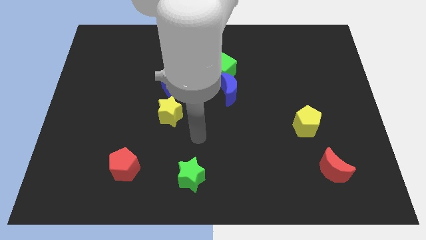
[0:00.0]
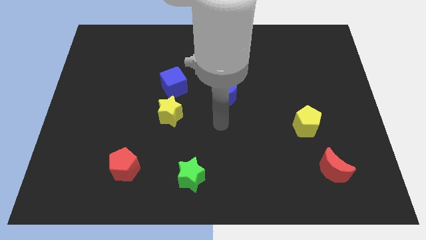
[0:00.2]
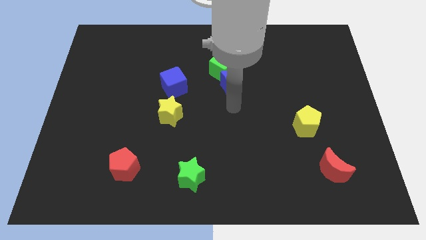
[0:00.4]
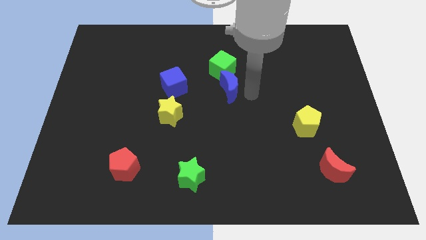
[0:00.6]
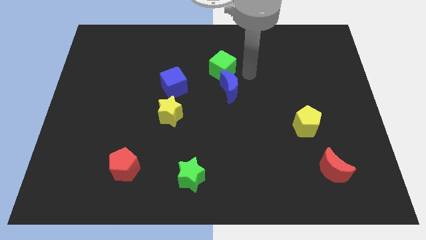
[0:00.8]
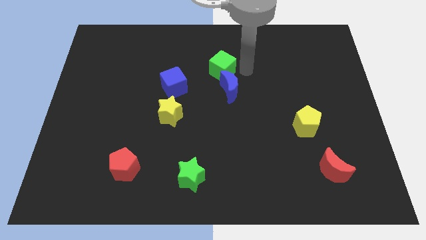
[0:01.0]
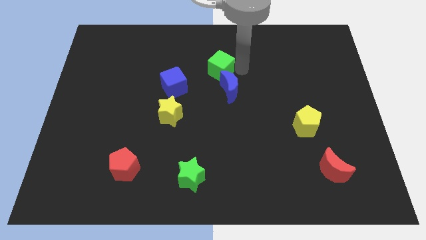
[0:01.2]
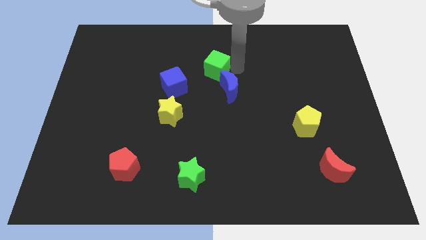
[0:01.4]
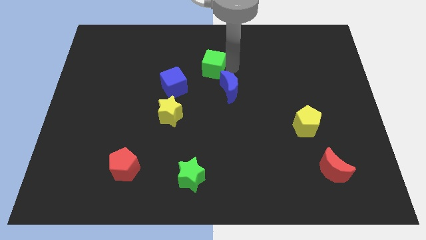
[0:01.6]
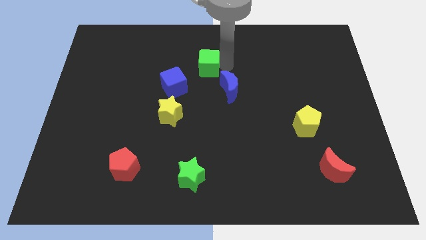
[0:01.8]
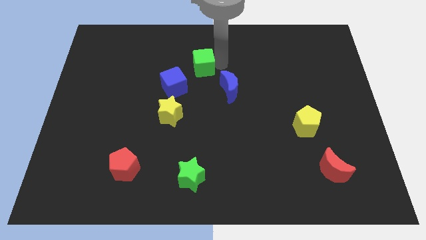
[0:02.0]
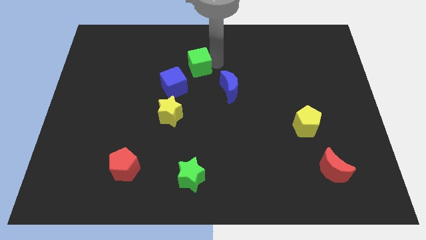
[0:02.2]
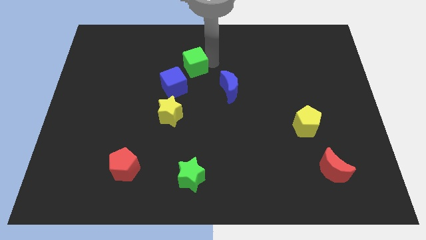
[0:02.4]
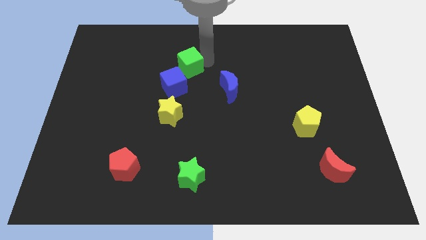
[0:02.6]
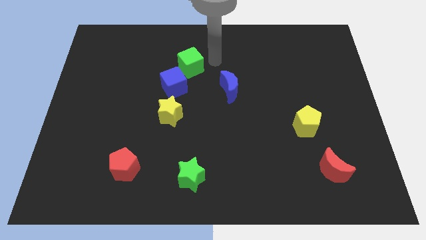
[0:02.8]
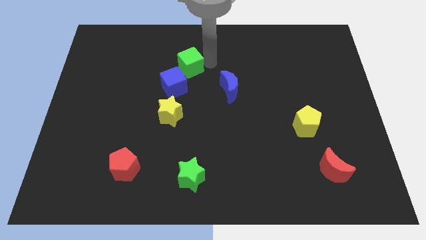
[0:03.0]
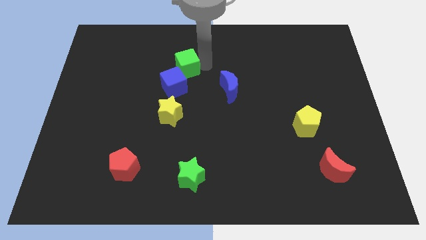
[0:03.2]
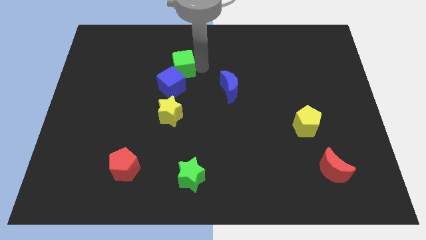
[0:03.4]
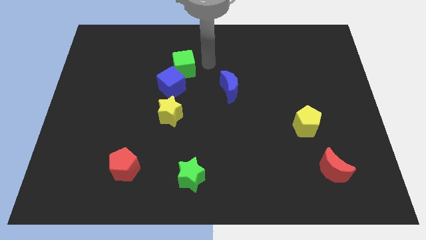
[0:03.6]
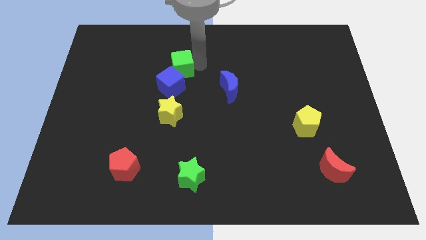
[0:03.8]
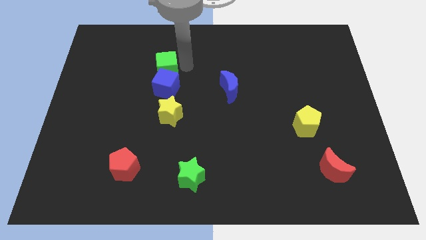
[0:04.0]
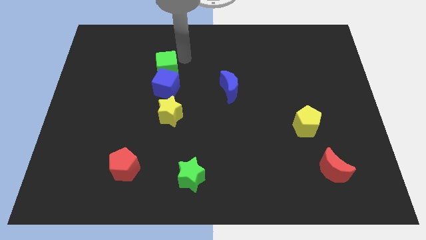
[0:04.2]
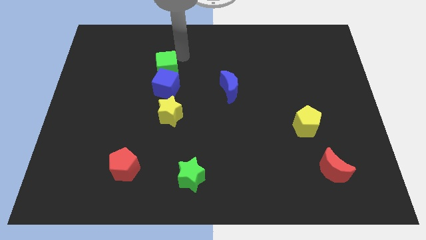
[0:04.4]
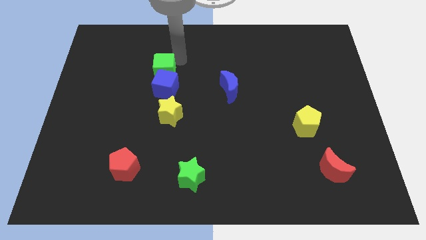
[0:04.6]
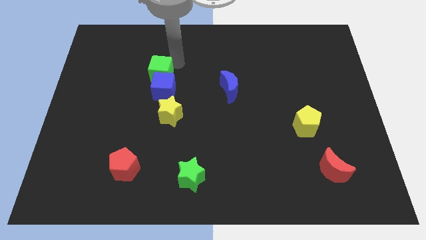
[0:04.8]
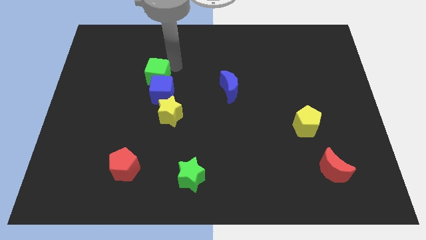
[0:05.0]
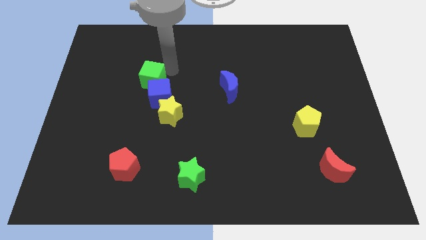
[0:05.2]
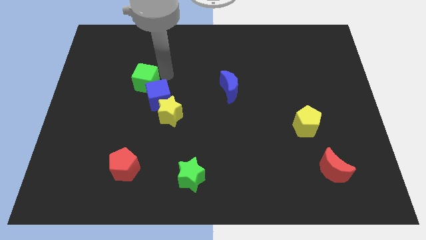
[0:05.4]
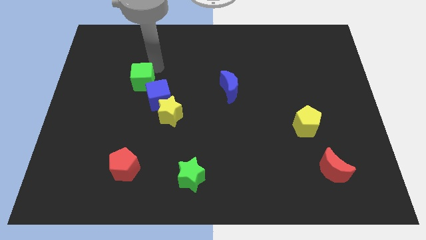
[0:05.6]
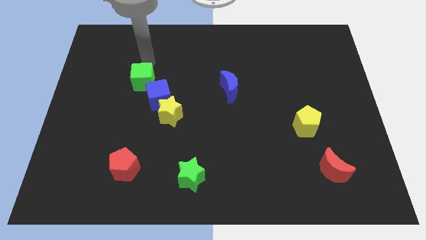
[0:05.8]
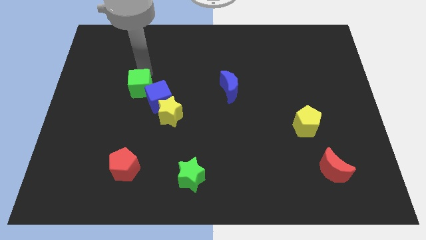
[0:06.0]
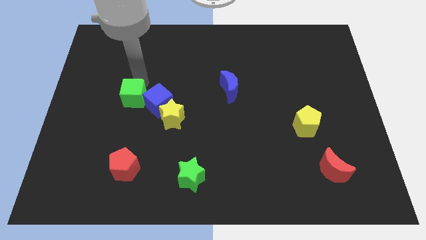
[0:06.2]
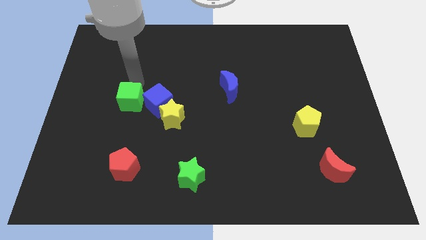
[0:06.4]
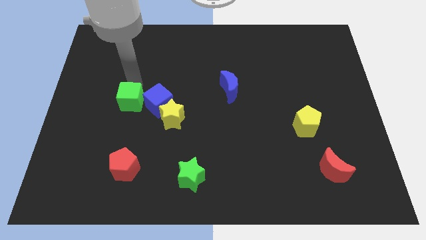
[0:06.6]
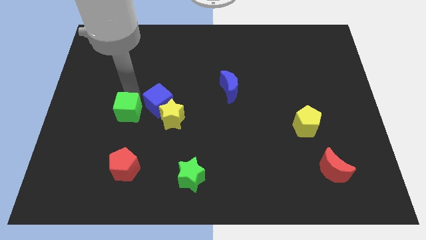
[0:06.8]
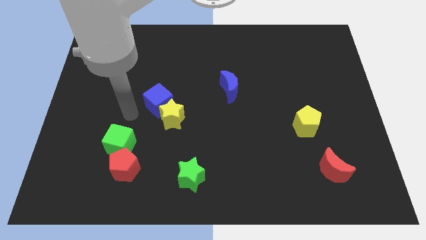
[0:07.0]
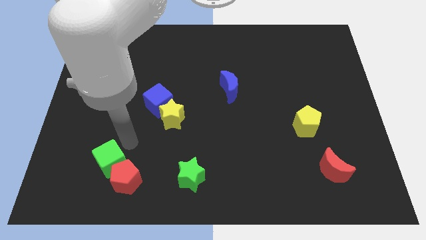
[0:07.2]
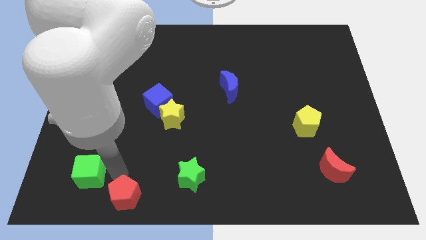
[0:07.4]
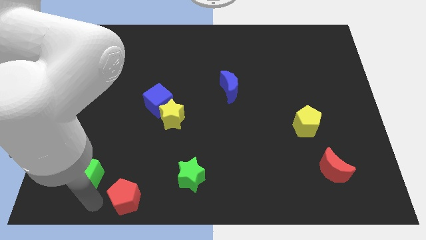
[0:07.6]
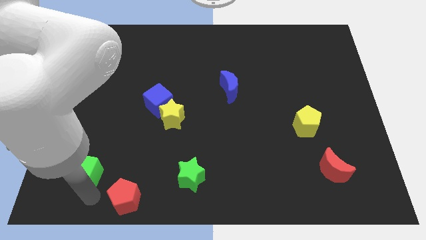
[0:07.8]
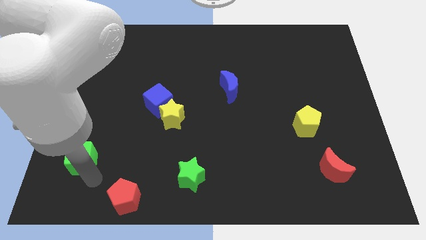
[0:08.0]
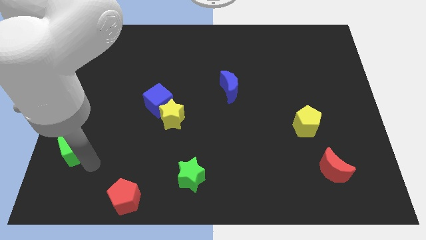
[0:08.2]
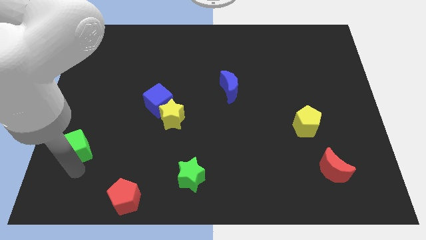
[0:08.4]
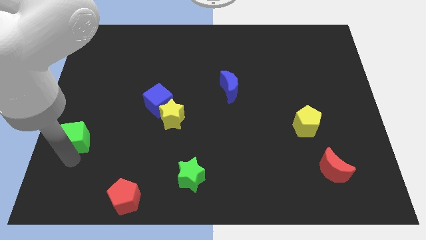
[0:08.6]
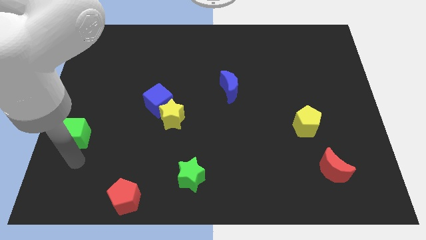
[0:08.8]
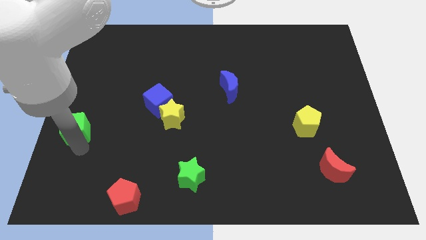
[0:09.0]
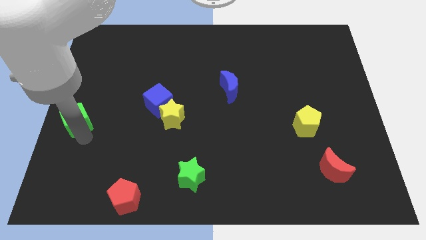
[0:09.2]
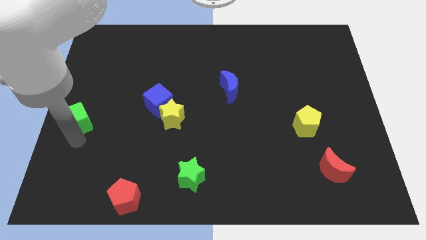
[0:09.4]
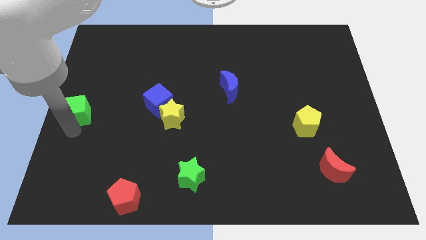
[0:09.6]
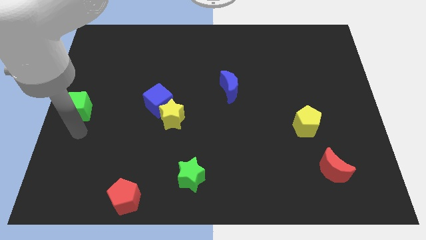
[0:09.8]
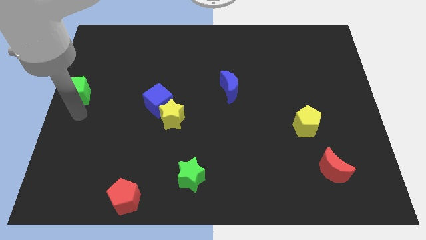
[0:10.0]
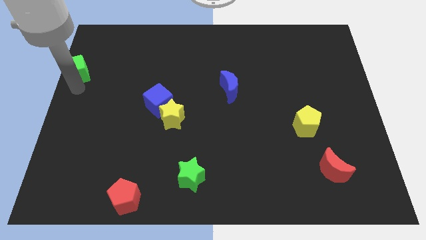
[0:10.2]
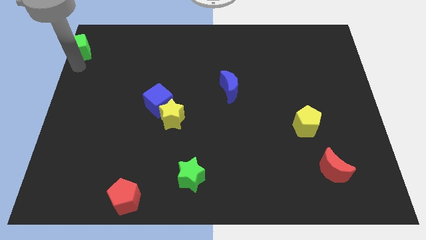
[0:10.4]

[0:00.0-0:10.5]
push the green cube to the top left

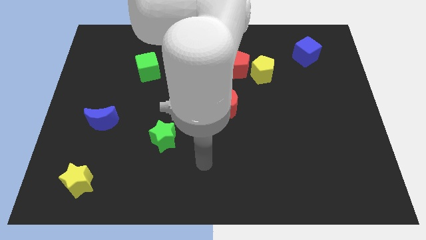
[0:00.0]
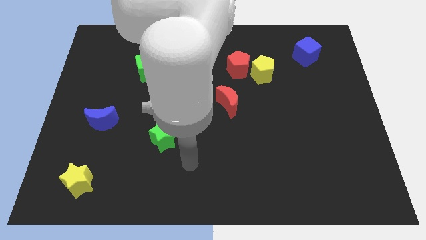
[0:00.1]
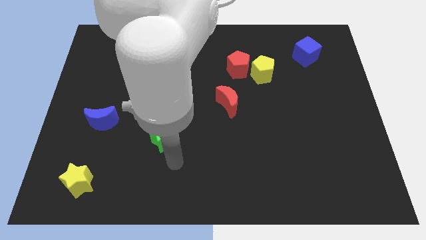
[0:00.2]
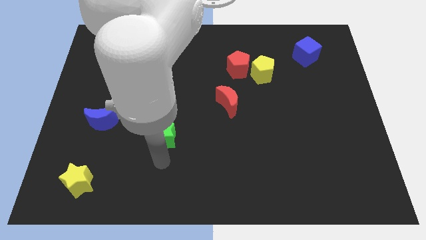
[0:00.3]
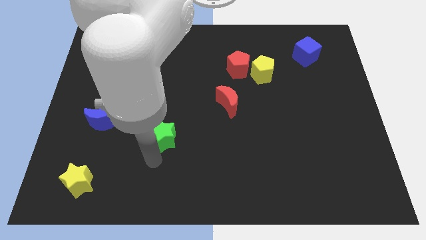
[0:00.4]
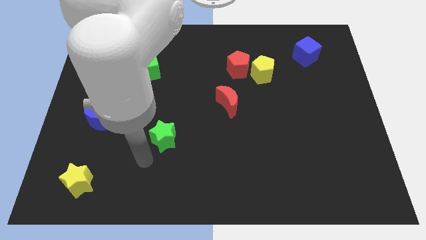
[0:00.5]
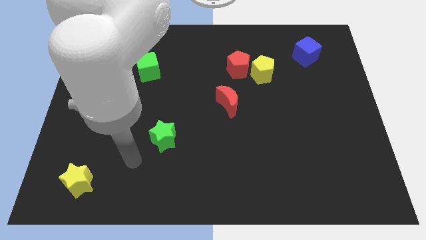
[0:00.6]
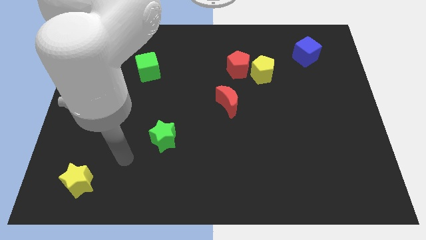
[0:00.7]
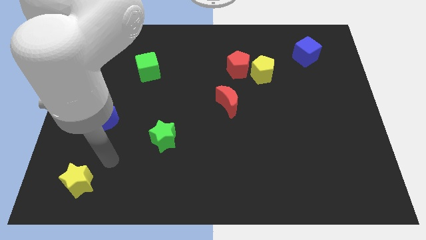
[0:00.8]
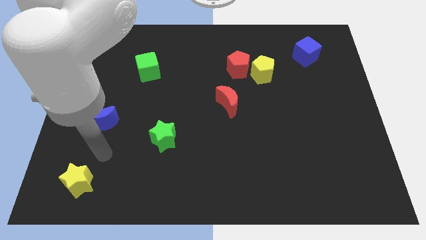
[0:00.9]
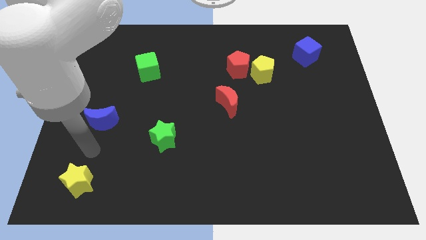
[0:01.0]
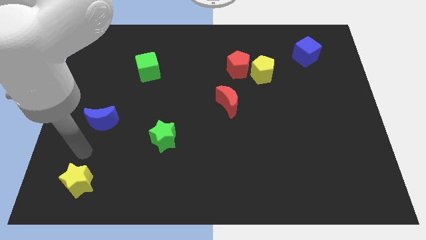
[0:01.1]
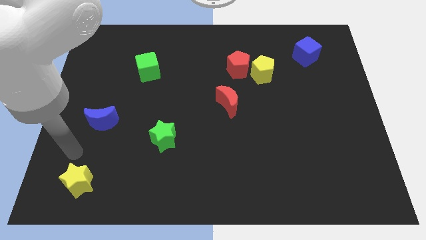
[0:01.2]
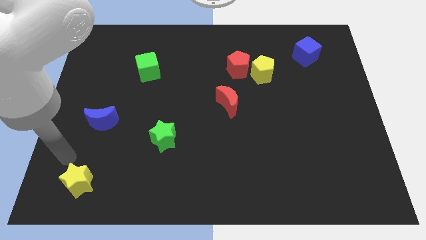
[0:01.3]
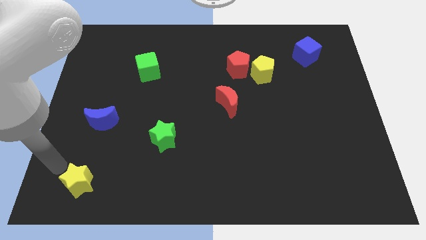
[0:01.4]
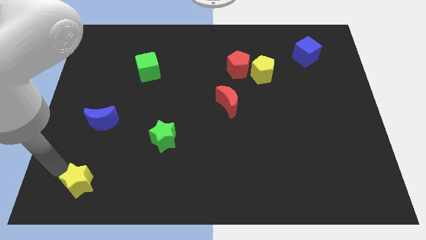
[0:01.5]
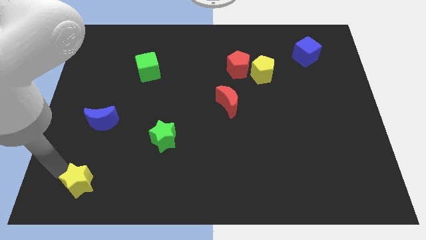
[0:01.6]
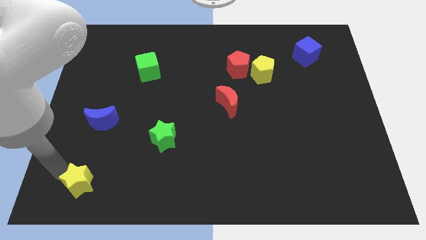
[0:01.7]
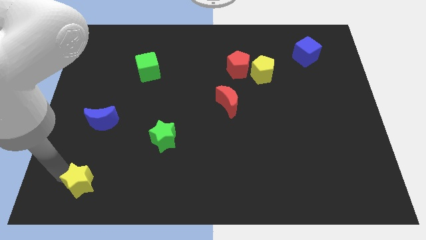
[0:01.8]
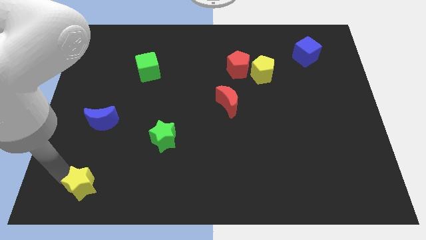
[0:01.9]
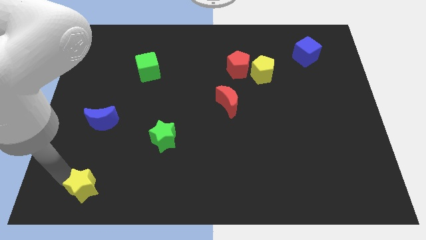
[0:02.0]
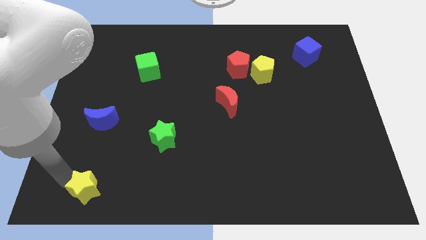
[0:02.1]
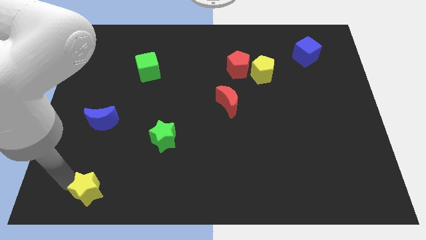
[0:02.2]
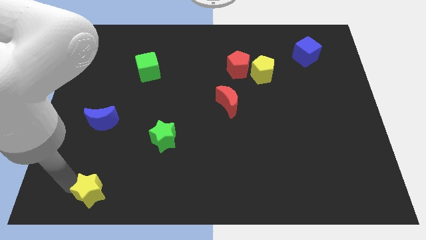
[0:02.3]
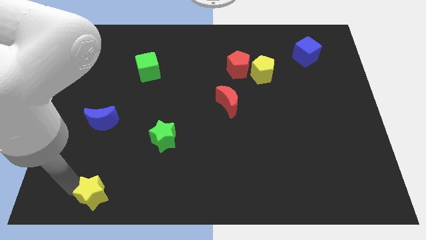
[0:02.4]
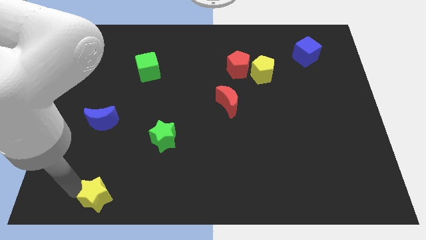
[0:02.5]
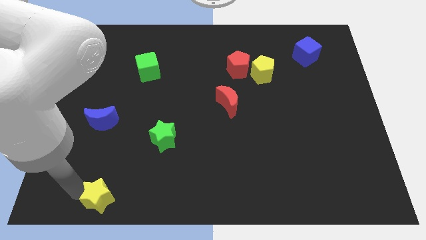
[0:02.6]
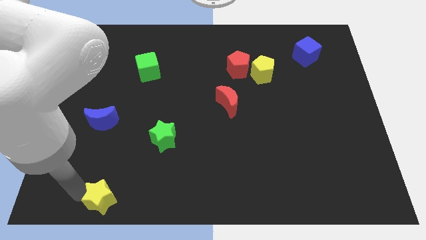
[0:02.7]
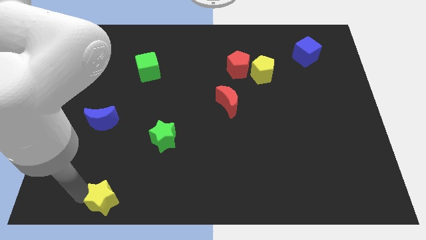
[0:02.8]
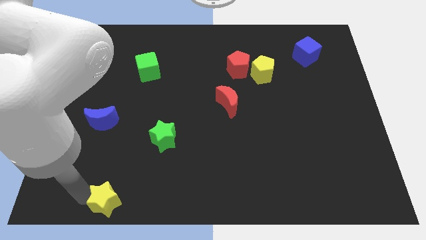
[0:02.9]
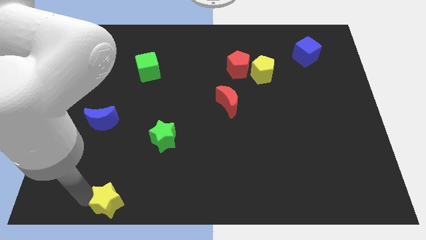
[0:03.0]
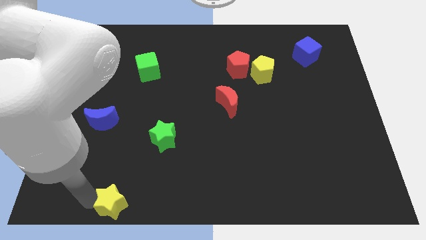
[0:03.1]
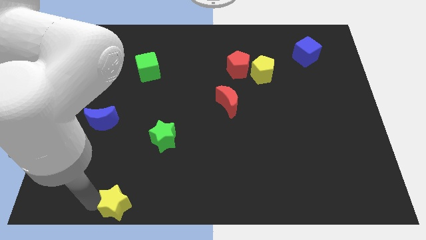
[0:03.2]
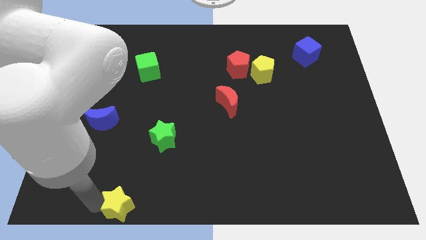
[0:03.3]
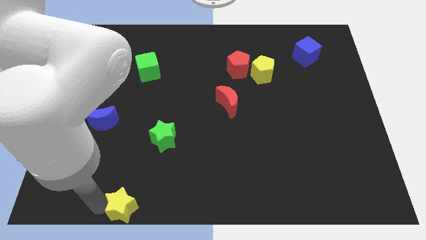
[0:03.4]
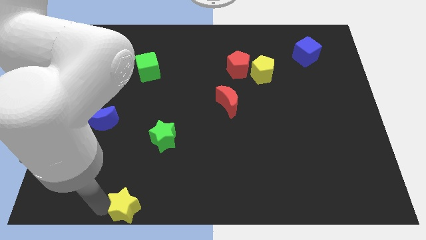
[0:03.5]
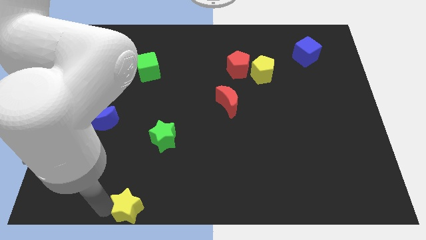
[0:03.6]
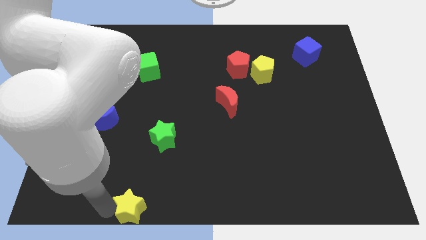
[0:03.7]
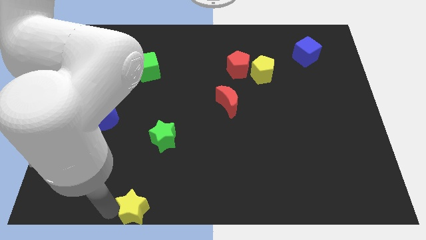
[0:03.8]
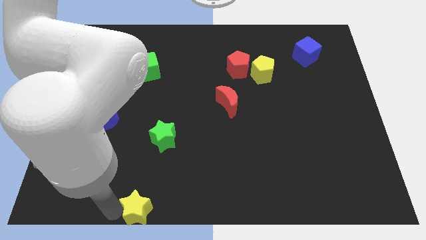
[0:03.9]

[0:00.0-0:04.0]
push the yellow star to the bottom
